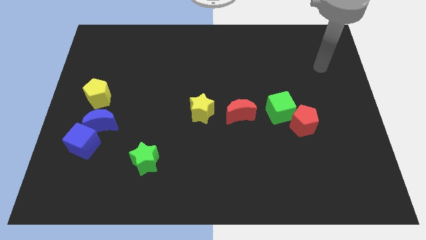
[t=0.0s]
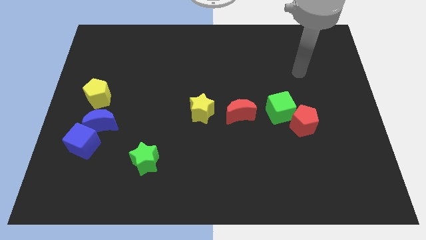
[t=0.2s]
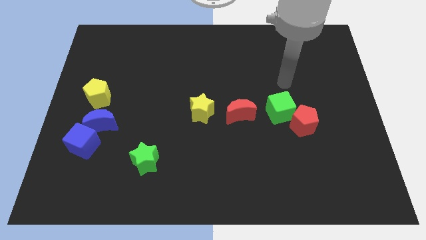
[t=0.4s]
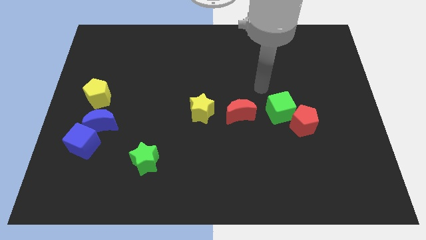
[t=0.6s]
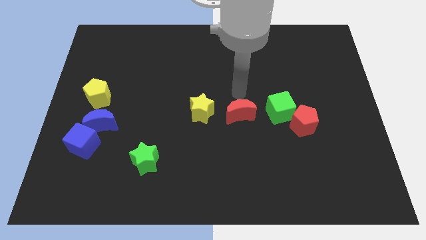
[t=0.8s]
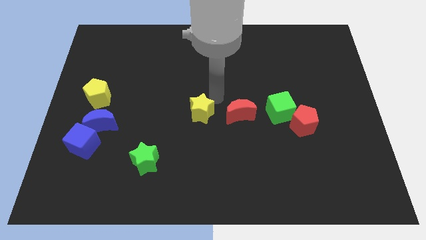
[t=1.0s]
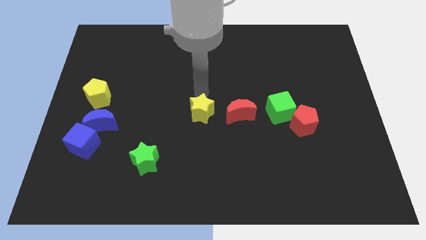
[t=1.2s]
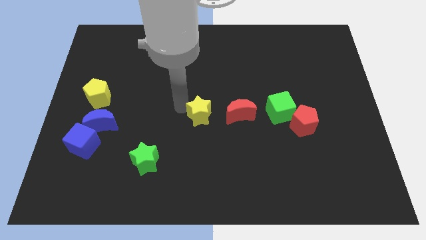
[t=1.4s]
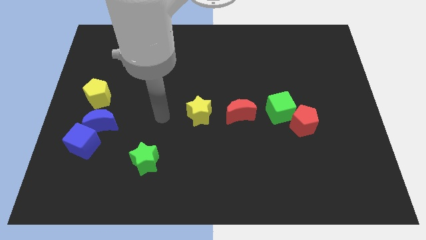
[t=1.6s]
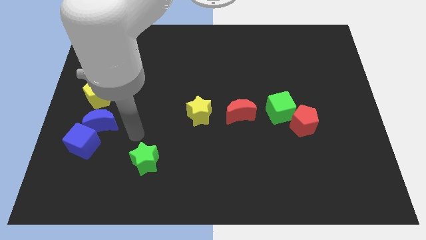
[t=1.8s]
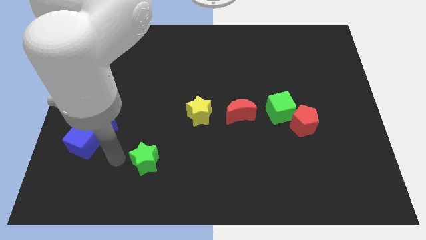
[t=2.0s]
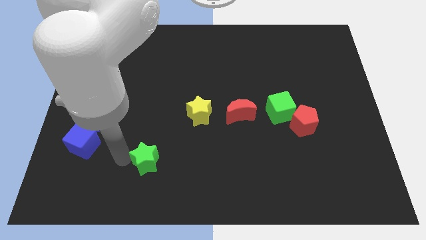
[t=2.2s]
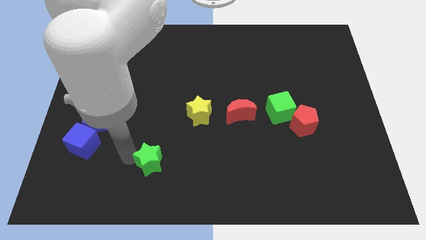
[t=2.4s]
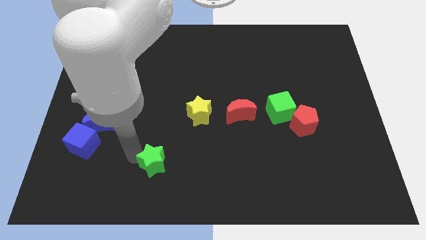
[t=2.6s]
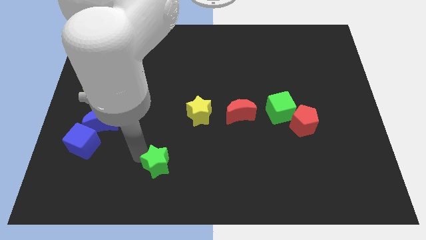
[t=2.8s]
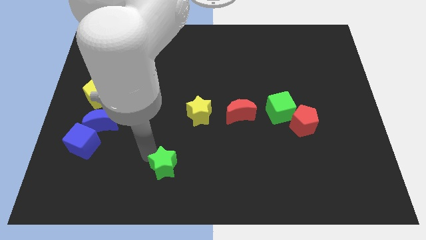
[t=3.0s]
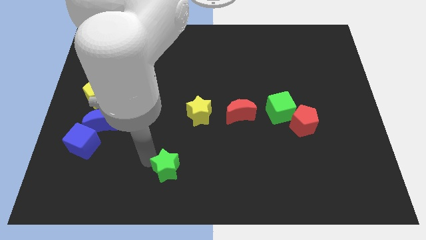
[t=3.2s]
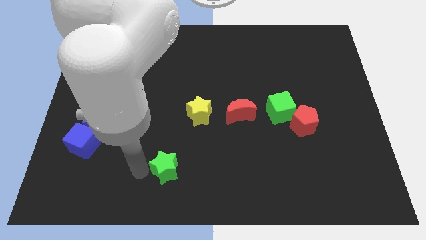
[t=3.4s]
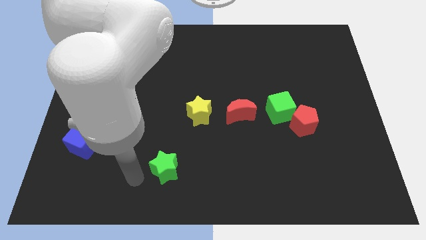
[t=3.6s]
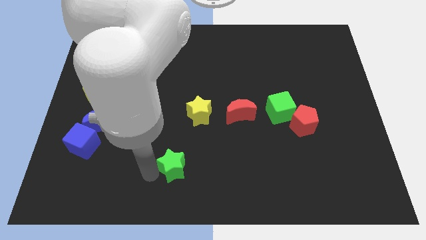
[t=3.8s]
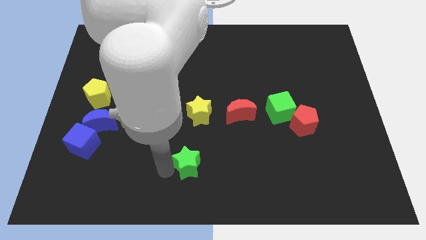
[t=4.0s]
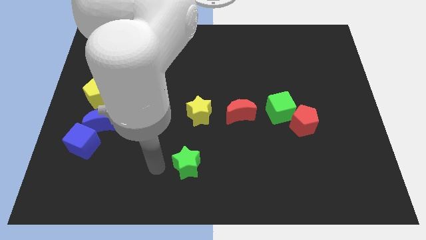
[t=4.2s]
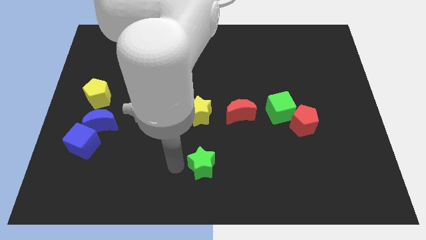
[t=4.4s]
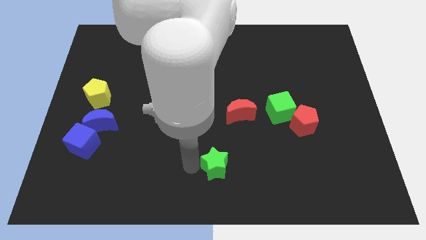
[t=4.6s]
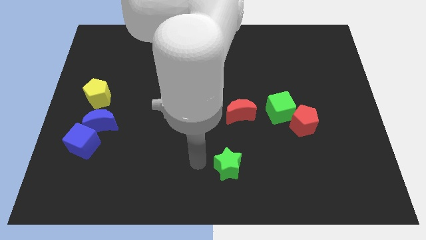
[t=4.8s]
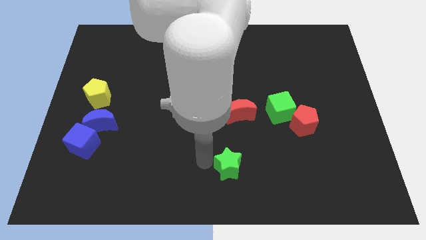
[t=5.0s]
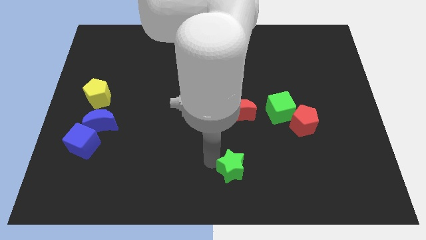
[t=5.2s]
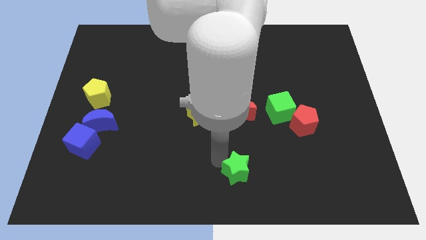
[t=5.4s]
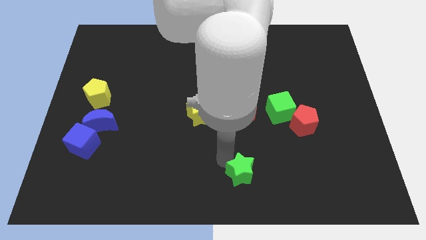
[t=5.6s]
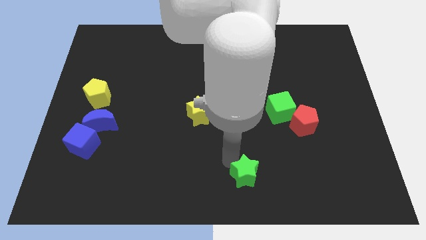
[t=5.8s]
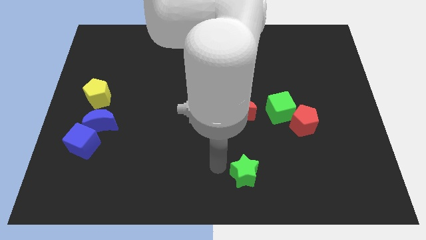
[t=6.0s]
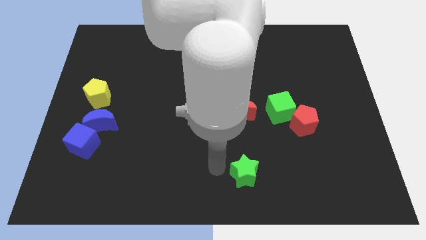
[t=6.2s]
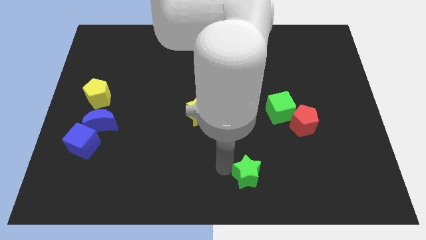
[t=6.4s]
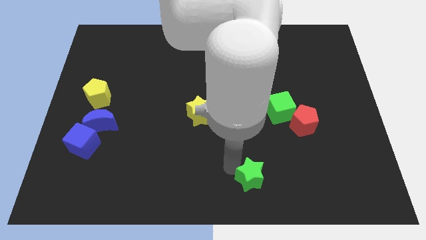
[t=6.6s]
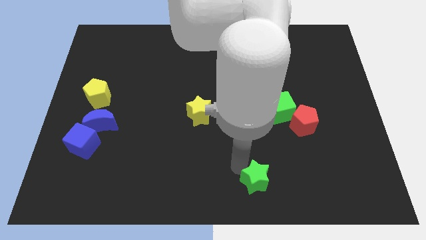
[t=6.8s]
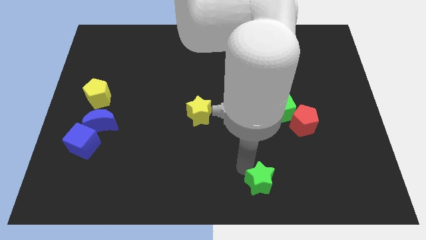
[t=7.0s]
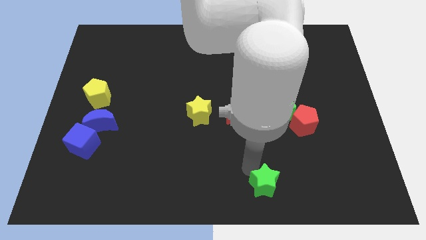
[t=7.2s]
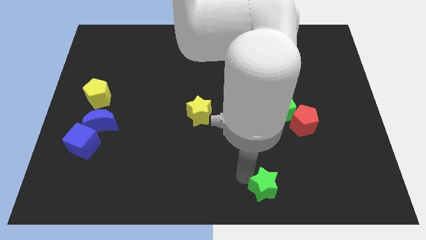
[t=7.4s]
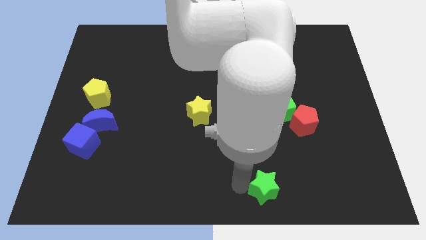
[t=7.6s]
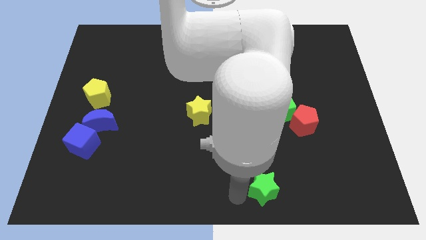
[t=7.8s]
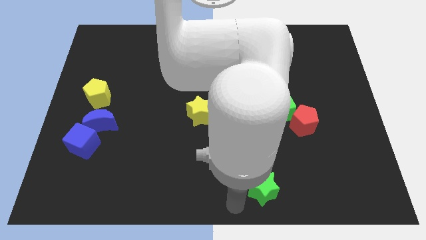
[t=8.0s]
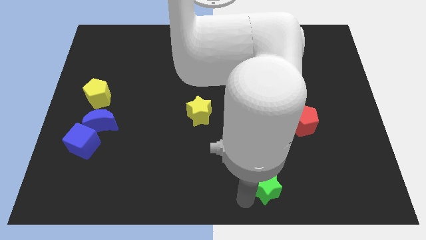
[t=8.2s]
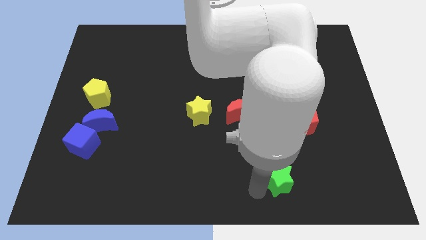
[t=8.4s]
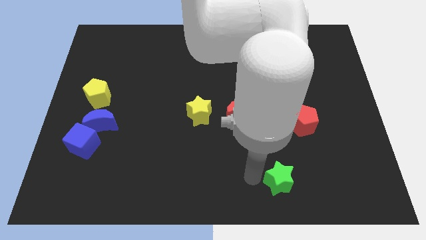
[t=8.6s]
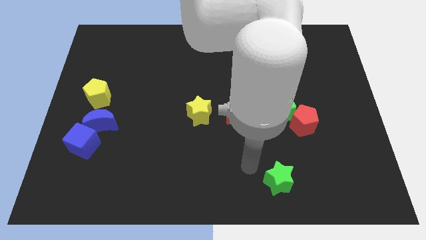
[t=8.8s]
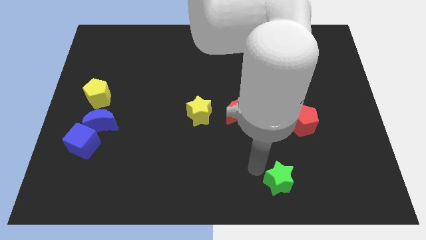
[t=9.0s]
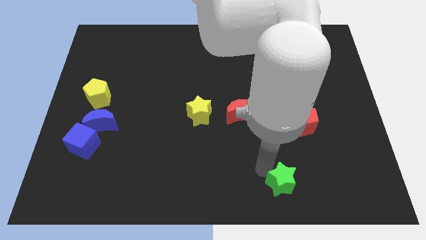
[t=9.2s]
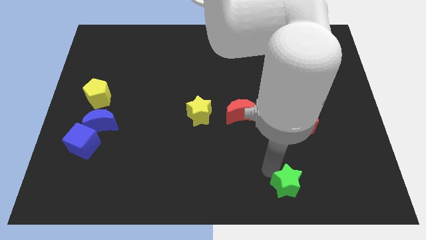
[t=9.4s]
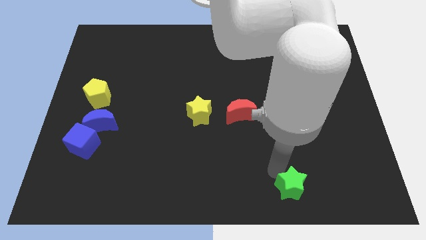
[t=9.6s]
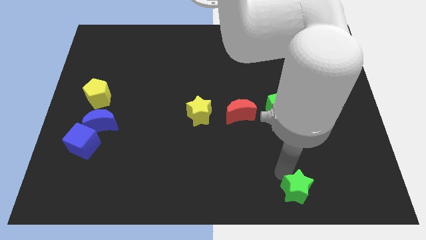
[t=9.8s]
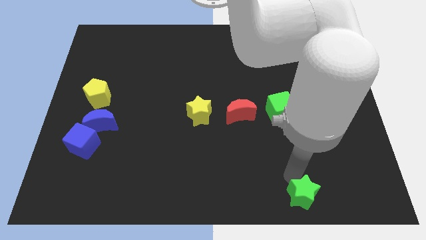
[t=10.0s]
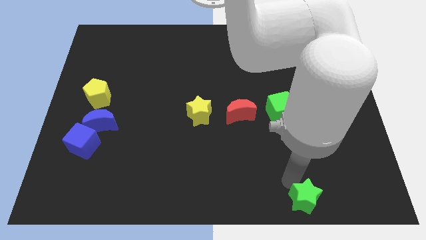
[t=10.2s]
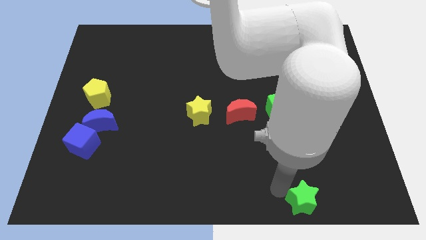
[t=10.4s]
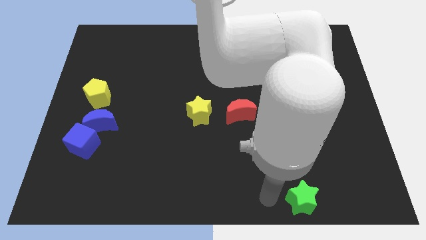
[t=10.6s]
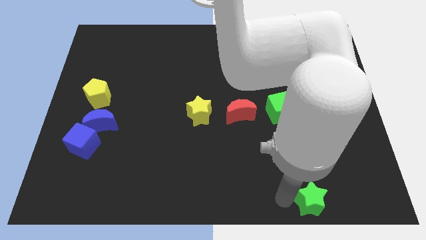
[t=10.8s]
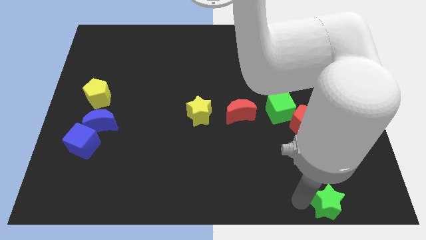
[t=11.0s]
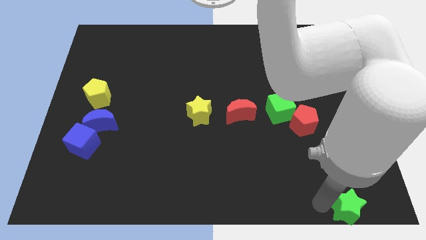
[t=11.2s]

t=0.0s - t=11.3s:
slide the green star to the bottom right of the board
